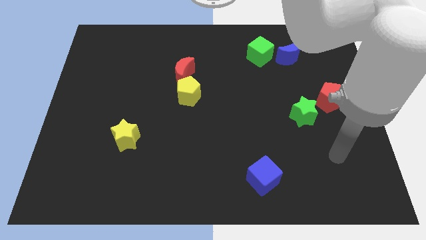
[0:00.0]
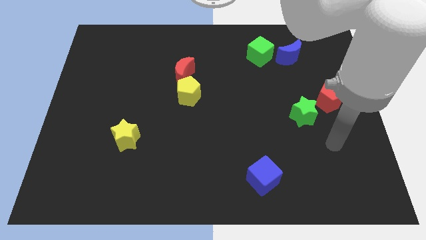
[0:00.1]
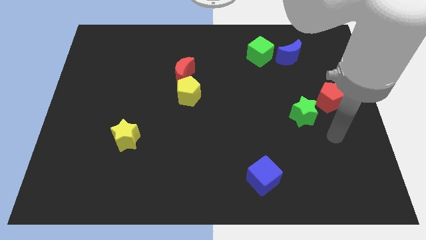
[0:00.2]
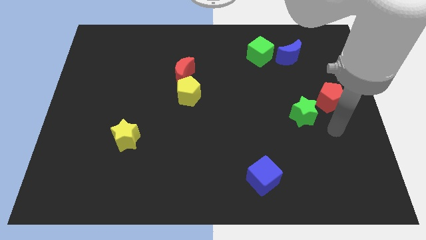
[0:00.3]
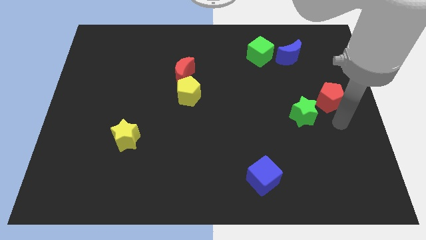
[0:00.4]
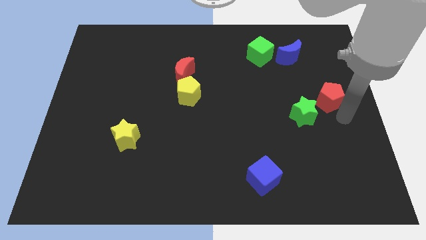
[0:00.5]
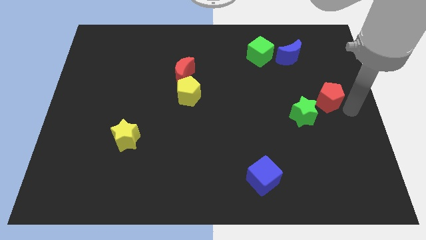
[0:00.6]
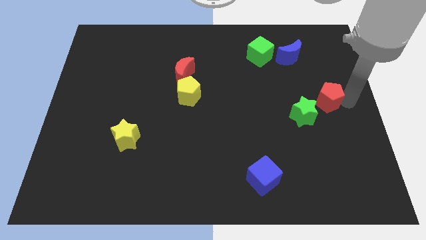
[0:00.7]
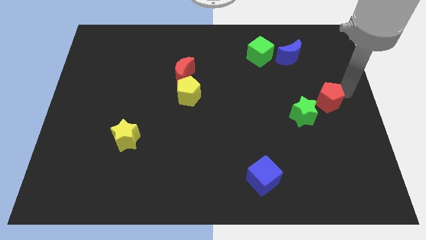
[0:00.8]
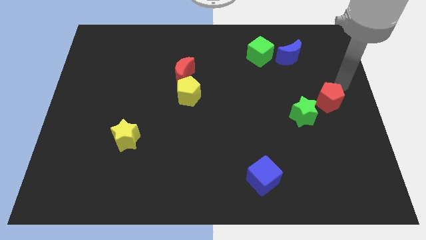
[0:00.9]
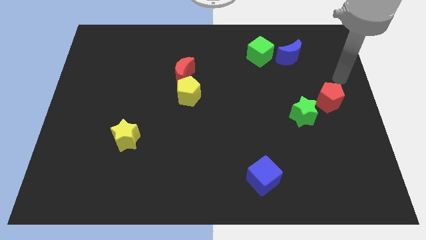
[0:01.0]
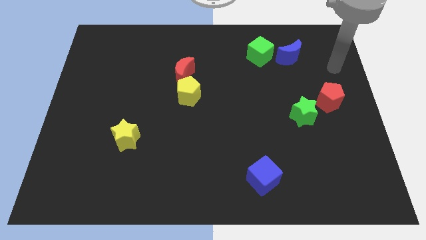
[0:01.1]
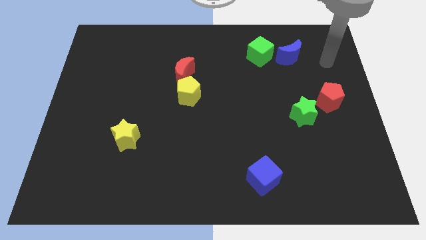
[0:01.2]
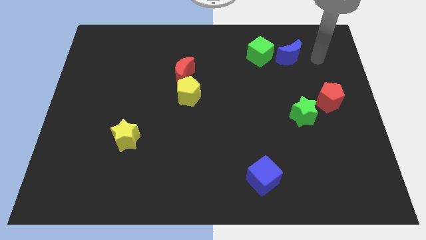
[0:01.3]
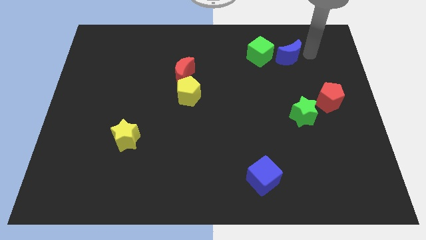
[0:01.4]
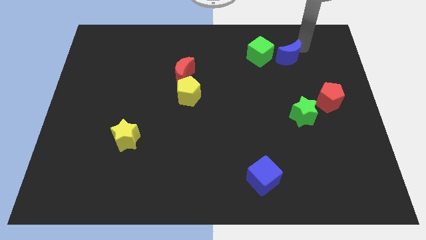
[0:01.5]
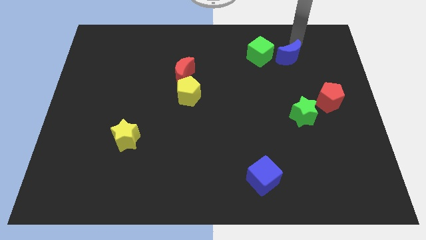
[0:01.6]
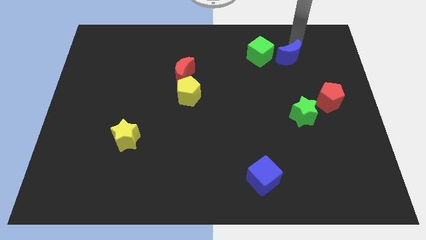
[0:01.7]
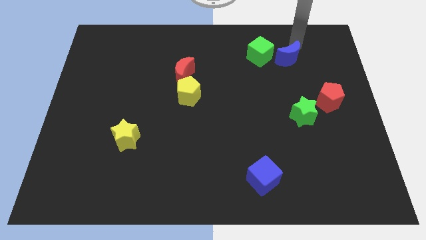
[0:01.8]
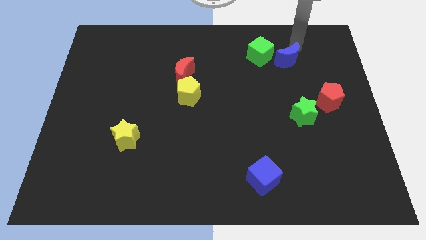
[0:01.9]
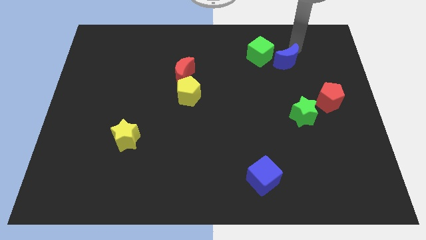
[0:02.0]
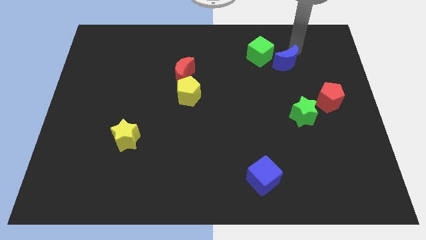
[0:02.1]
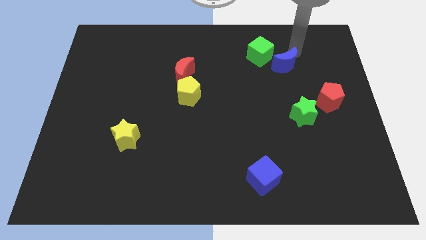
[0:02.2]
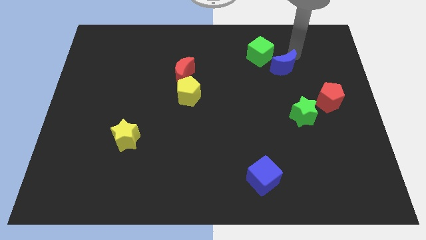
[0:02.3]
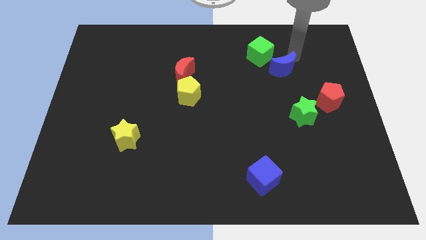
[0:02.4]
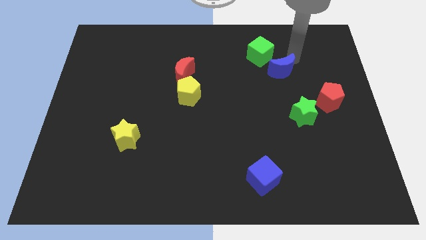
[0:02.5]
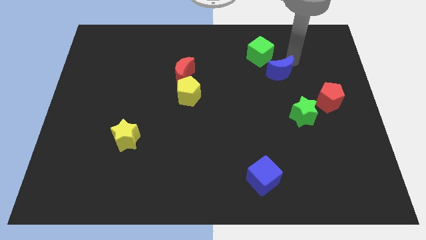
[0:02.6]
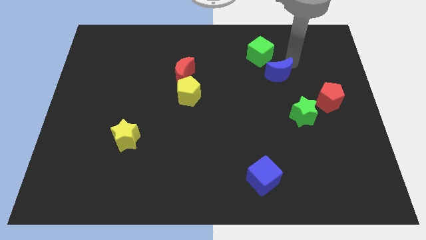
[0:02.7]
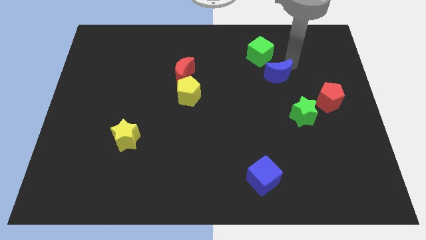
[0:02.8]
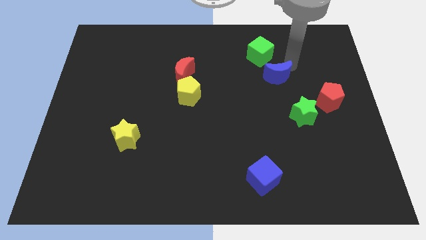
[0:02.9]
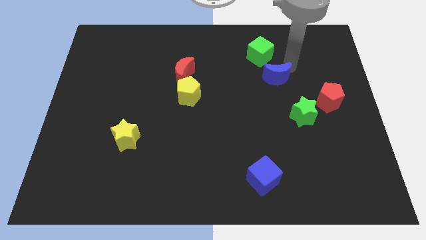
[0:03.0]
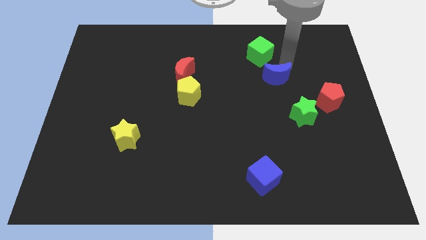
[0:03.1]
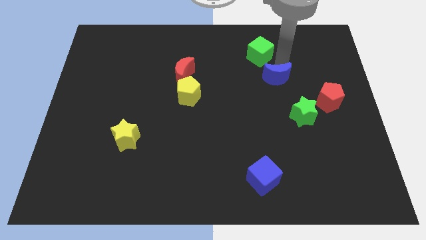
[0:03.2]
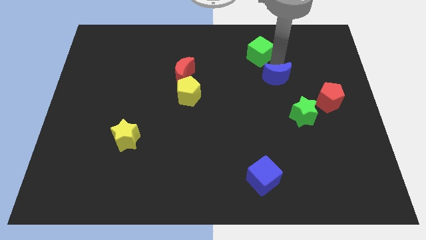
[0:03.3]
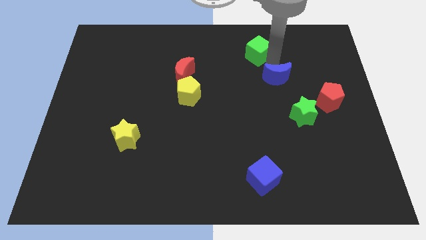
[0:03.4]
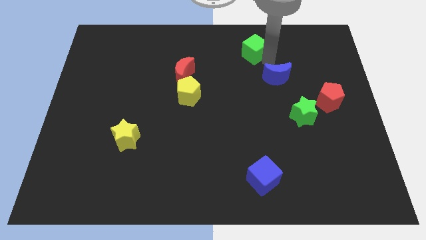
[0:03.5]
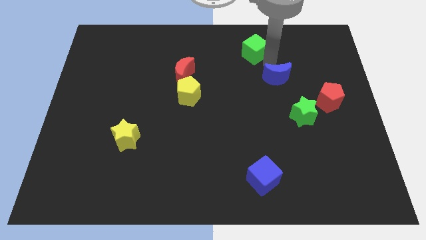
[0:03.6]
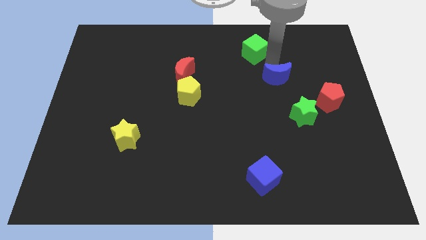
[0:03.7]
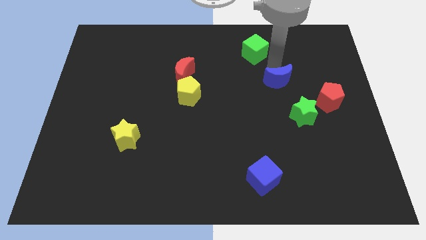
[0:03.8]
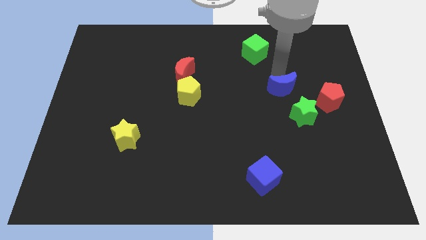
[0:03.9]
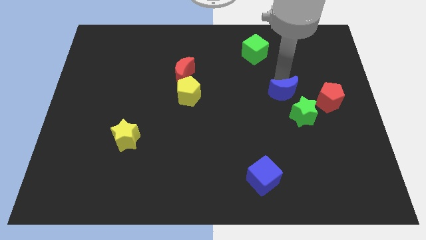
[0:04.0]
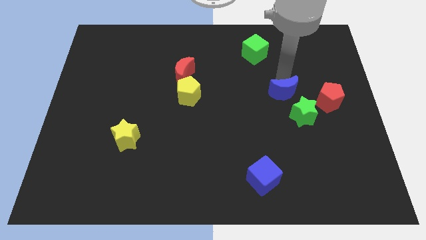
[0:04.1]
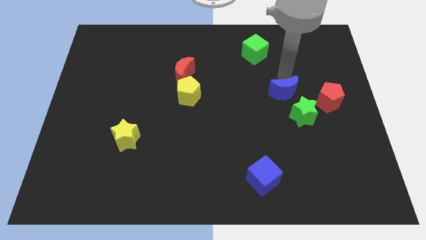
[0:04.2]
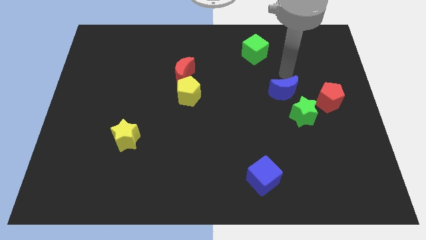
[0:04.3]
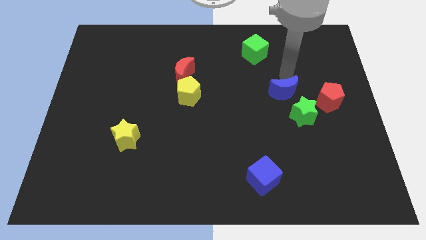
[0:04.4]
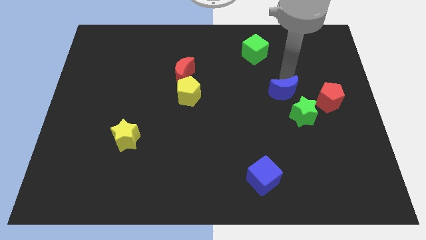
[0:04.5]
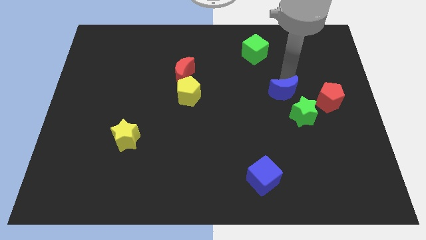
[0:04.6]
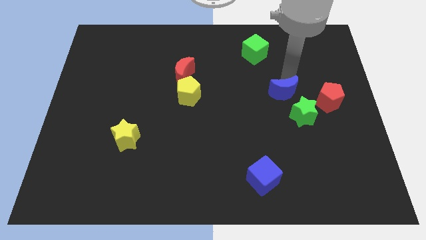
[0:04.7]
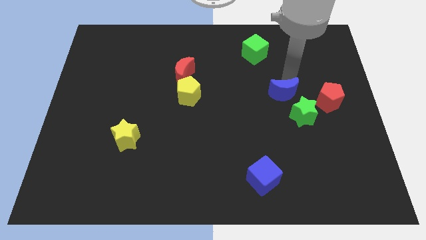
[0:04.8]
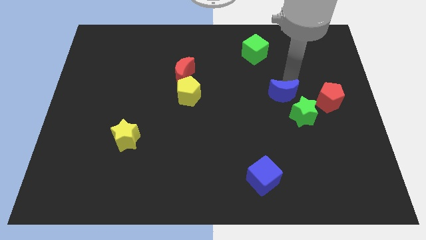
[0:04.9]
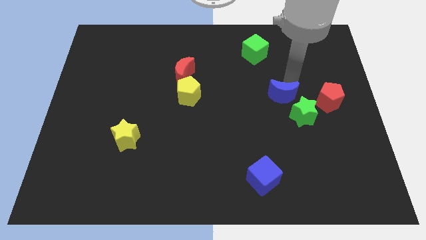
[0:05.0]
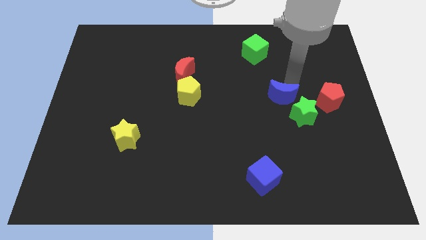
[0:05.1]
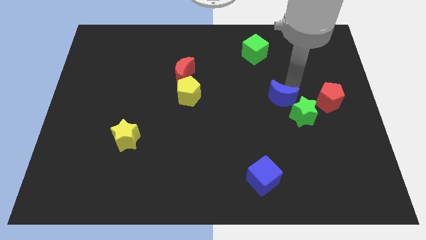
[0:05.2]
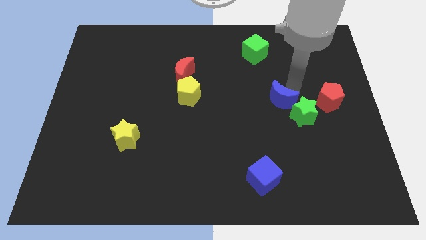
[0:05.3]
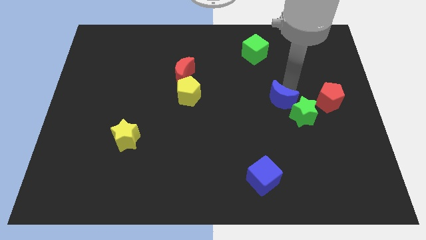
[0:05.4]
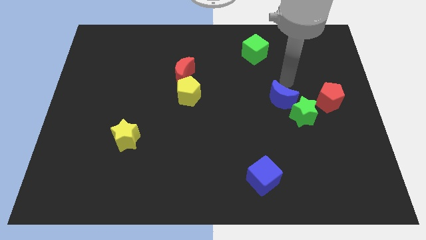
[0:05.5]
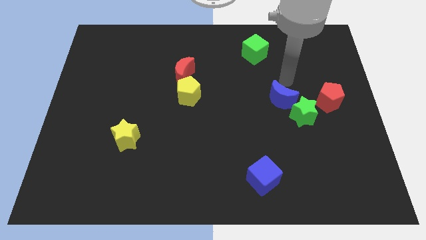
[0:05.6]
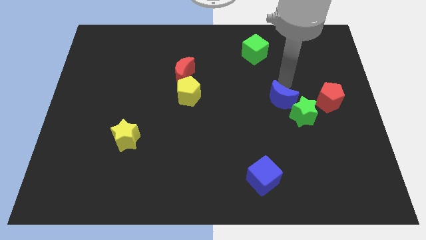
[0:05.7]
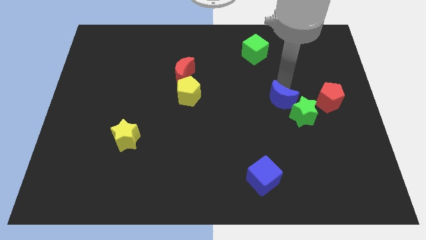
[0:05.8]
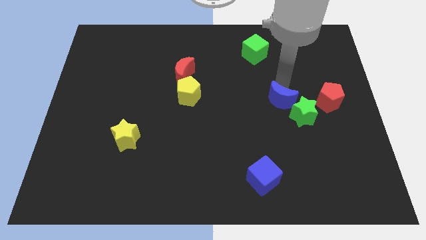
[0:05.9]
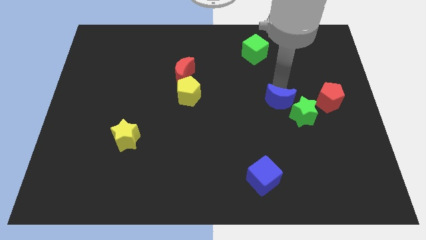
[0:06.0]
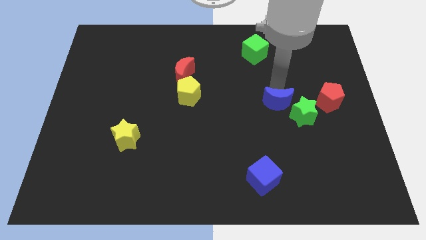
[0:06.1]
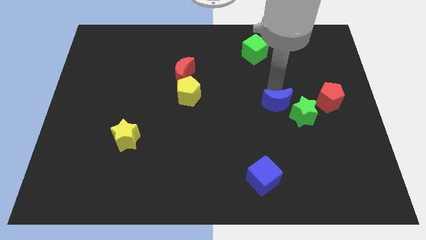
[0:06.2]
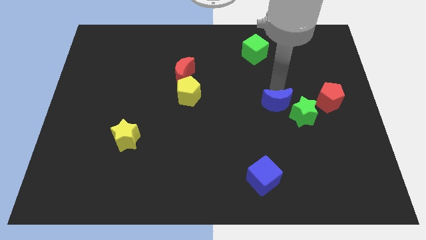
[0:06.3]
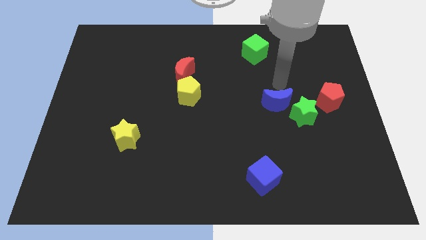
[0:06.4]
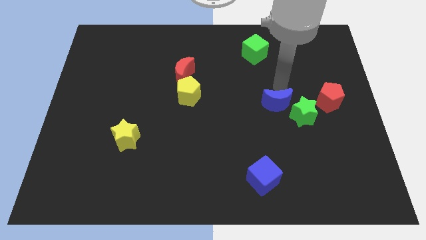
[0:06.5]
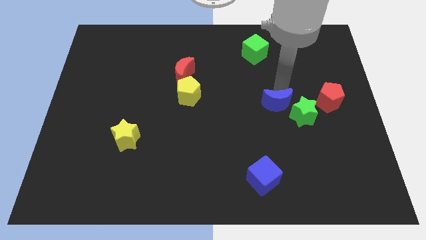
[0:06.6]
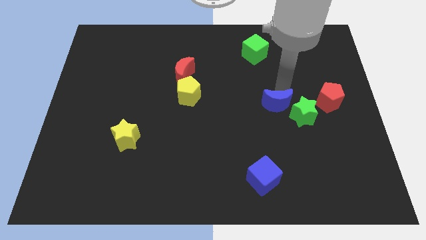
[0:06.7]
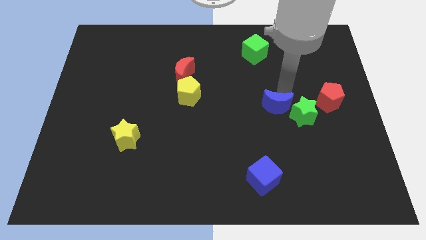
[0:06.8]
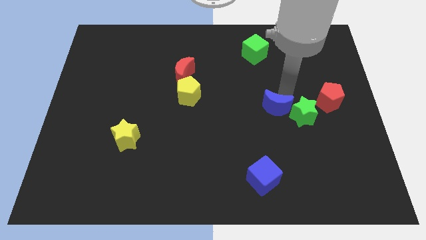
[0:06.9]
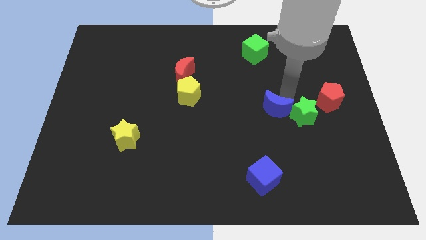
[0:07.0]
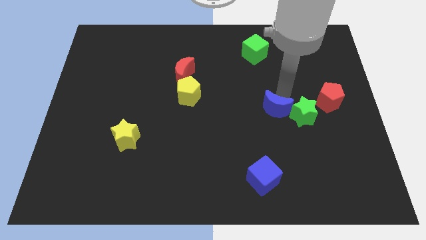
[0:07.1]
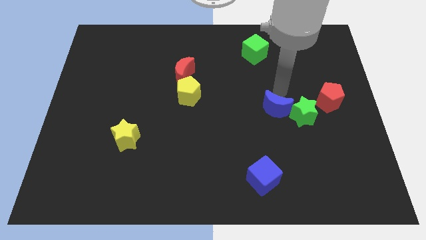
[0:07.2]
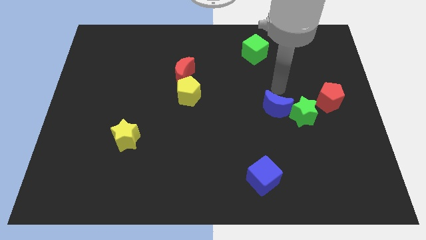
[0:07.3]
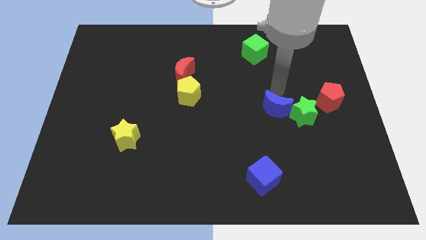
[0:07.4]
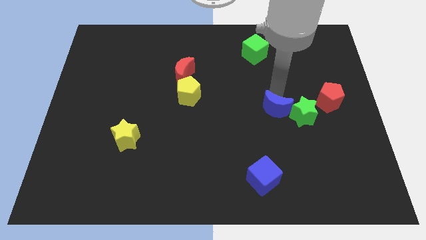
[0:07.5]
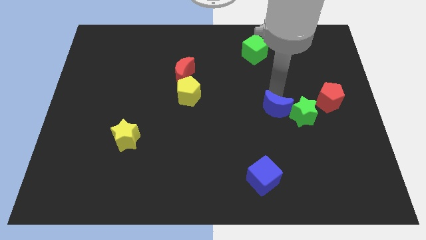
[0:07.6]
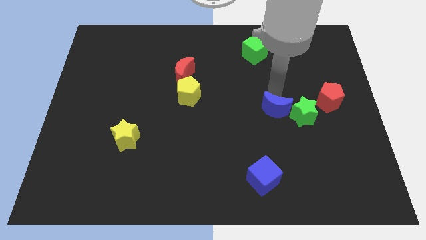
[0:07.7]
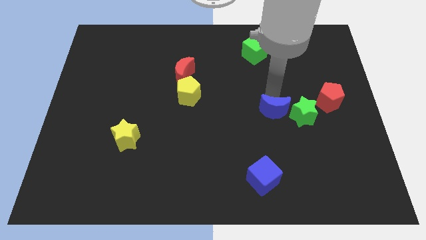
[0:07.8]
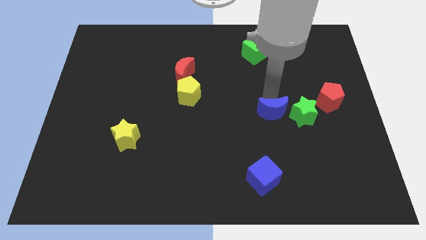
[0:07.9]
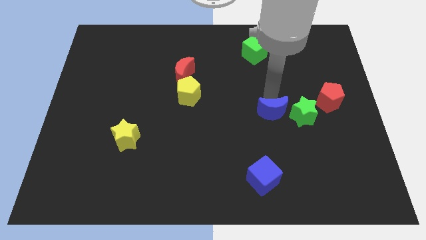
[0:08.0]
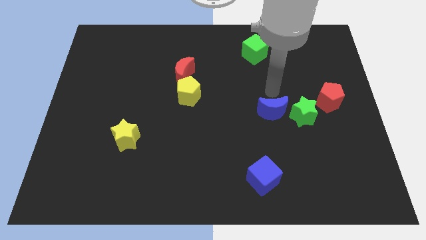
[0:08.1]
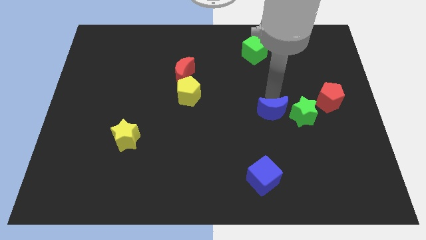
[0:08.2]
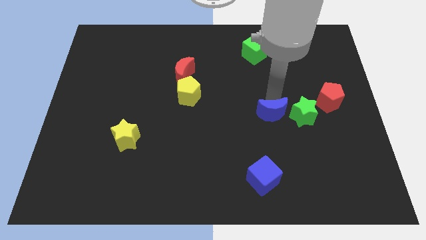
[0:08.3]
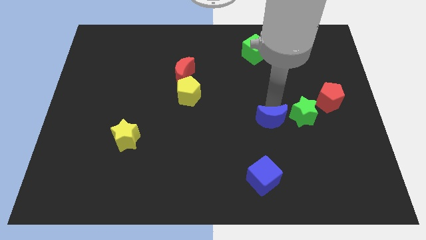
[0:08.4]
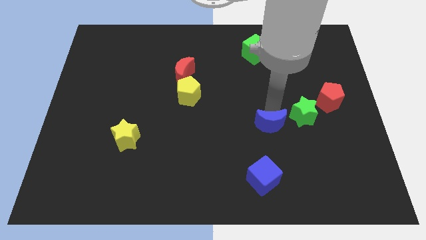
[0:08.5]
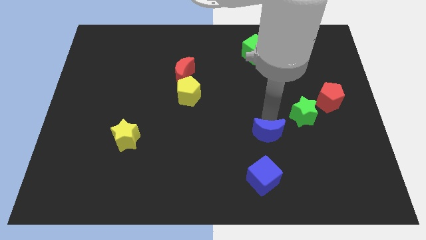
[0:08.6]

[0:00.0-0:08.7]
push the blue moon downwards
